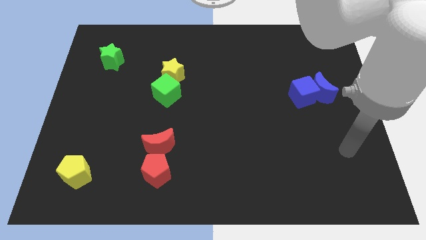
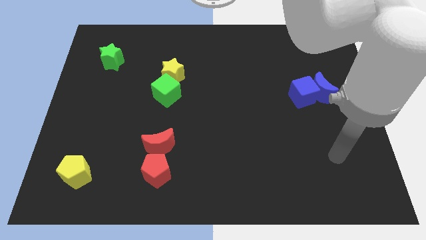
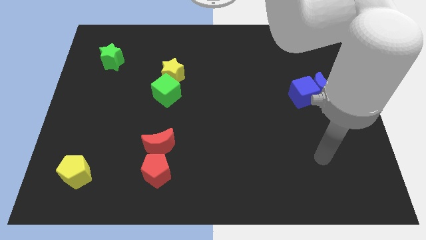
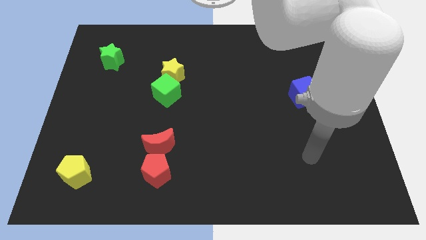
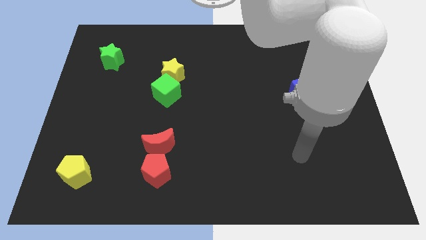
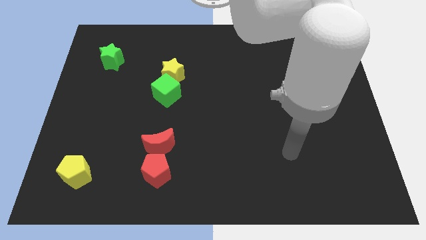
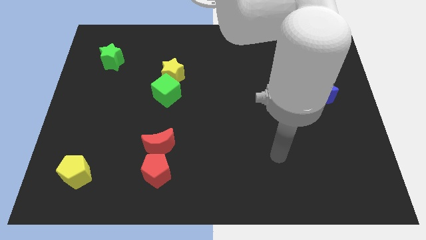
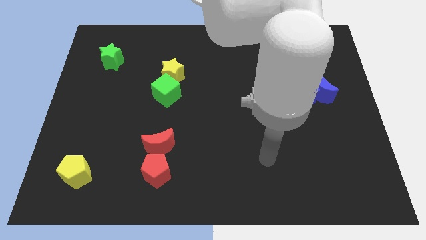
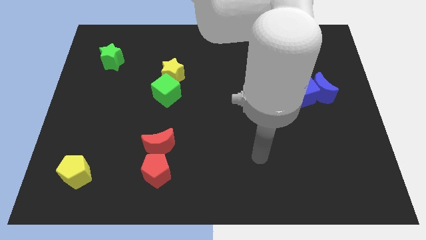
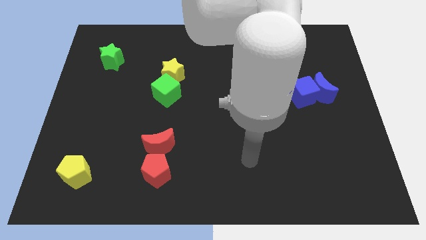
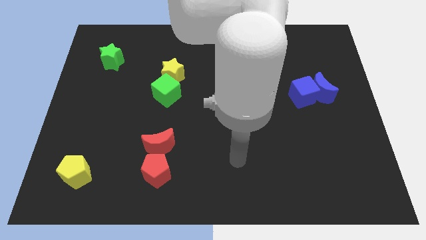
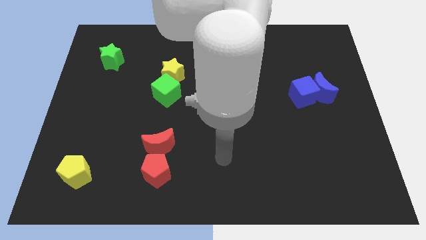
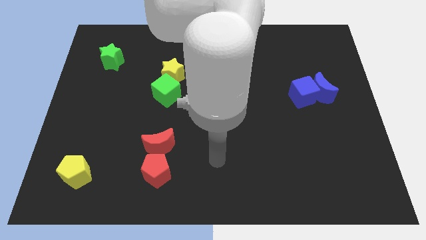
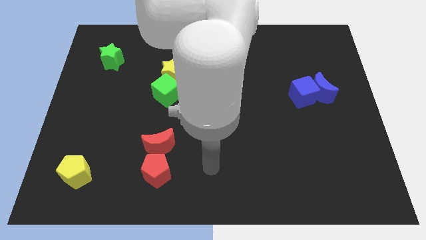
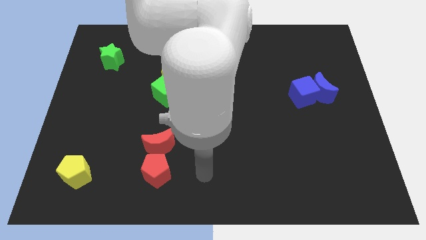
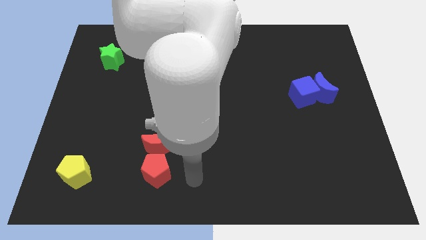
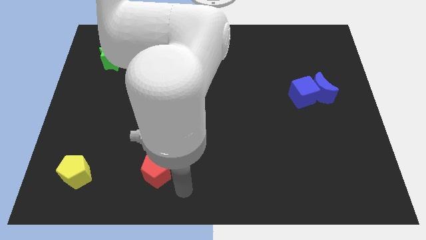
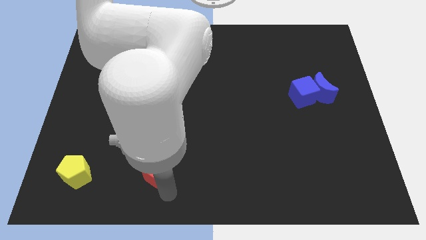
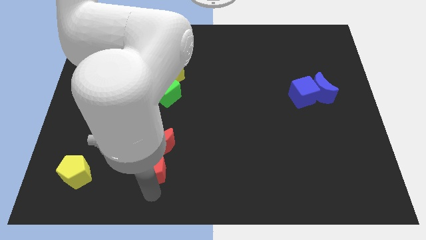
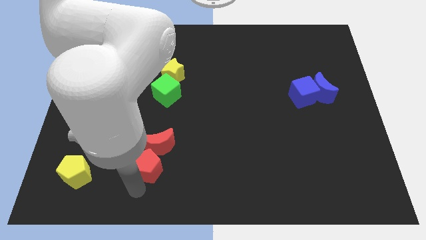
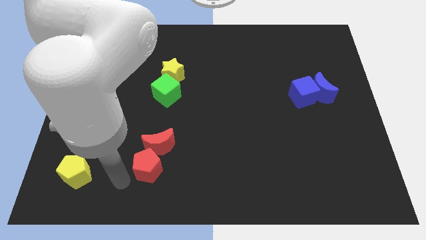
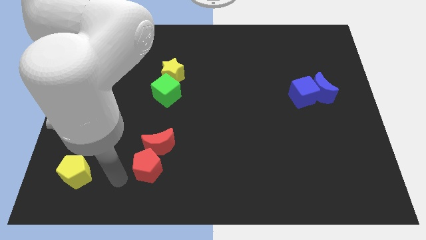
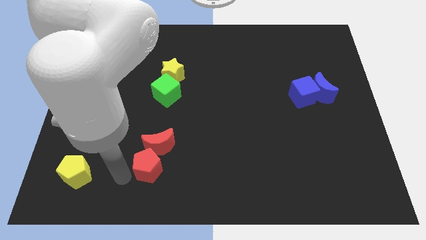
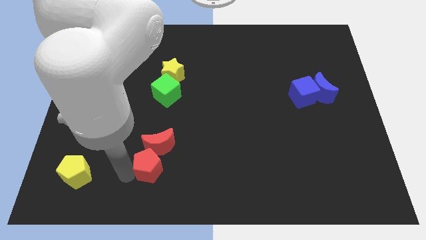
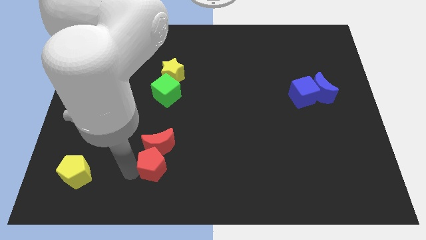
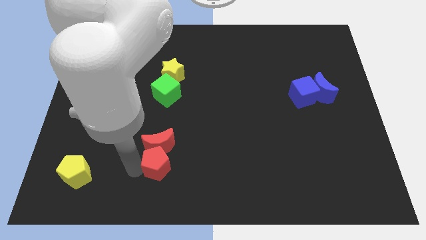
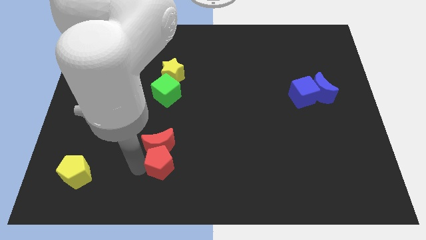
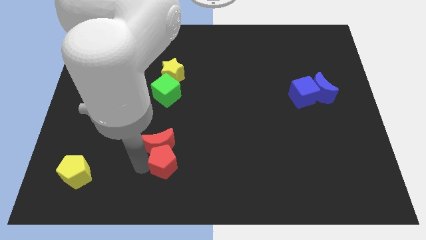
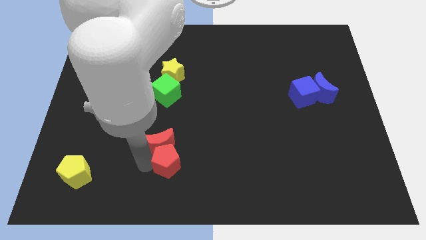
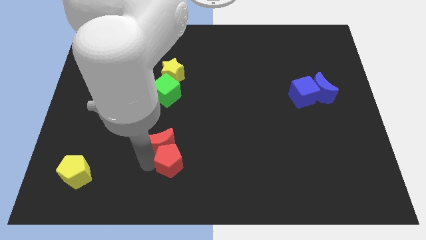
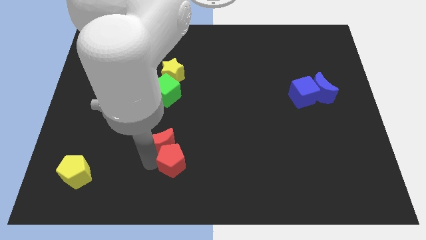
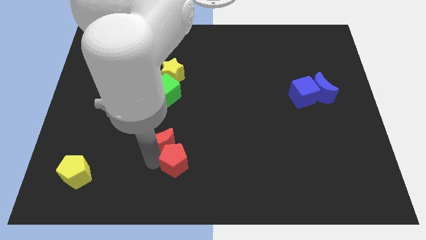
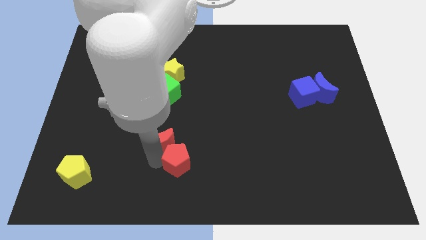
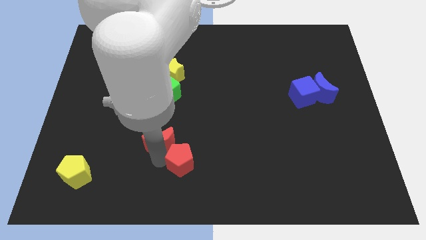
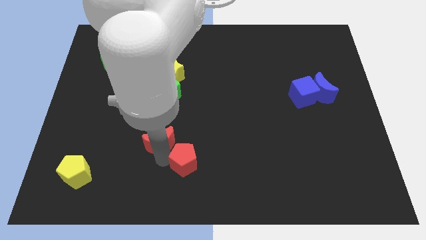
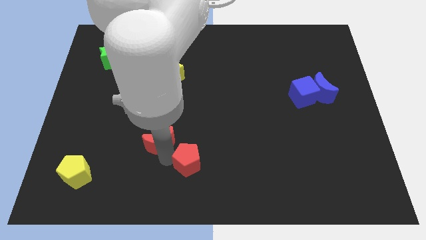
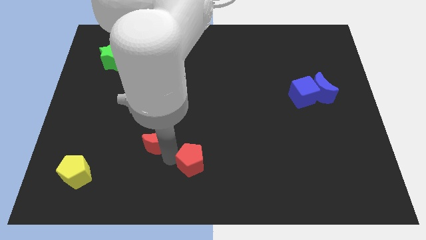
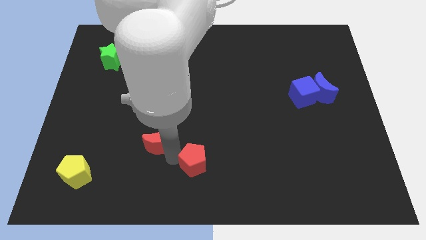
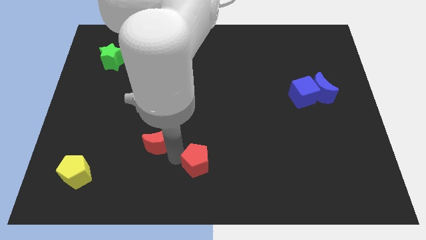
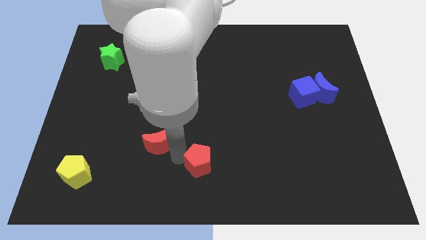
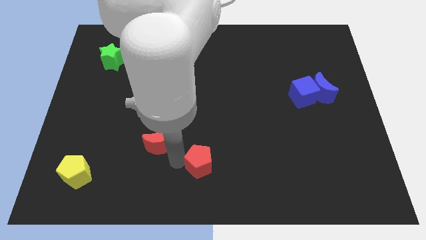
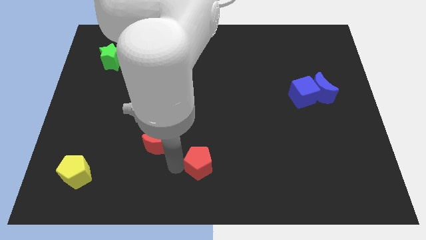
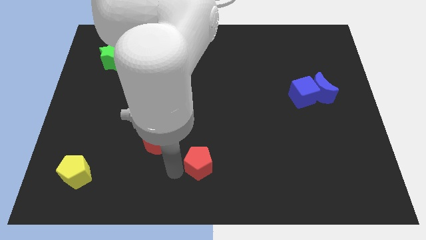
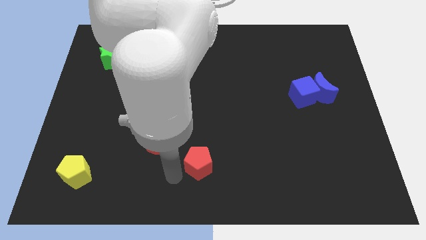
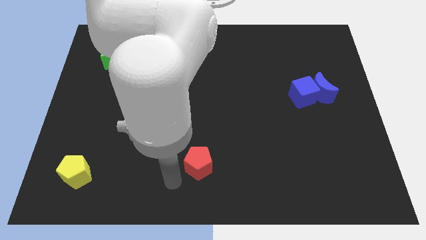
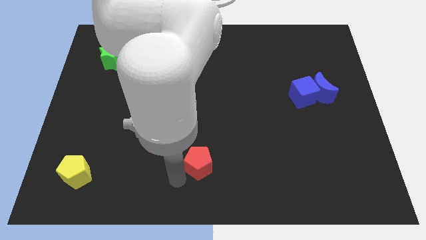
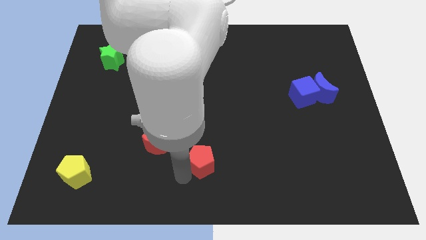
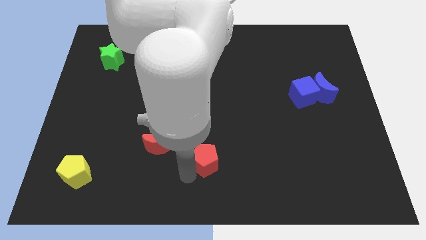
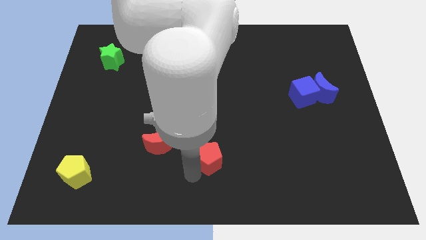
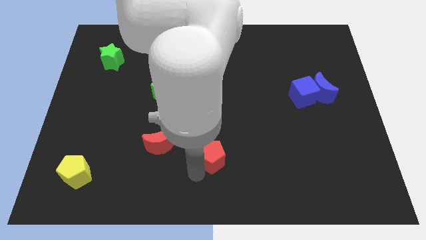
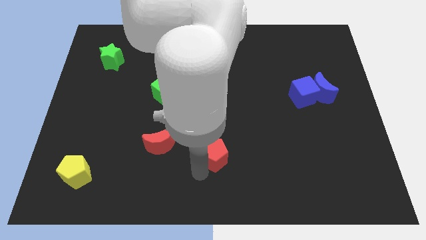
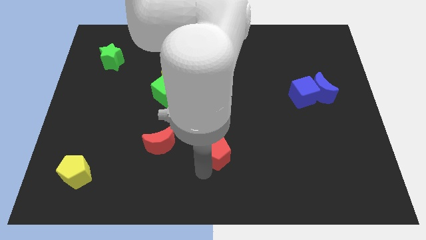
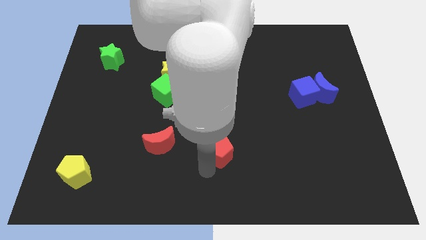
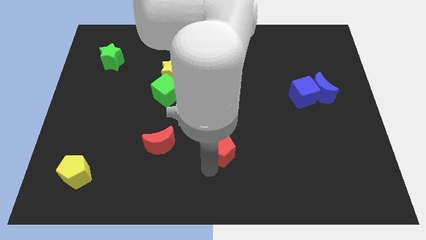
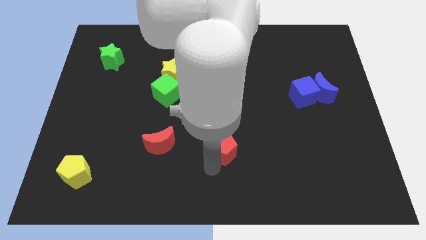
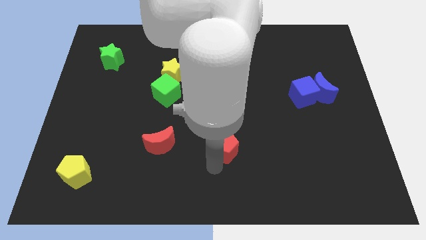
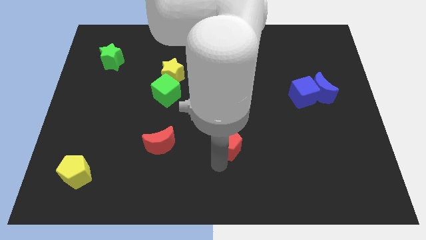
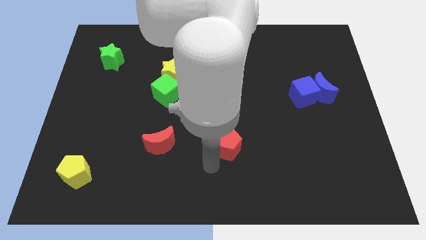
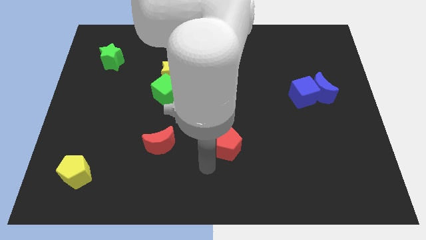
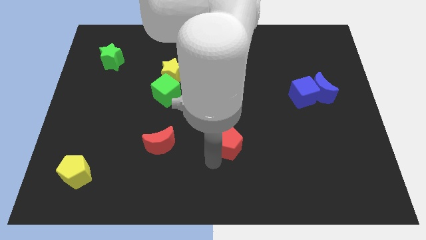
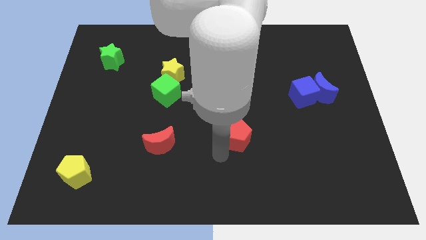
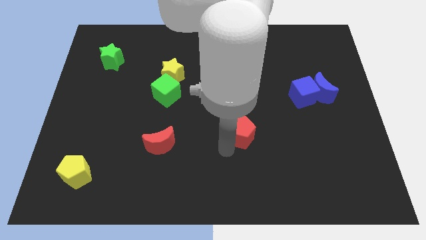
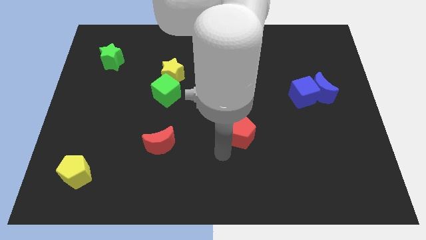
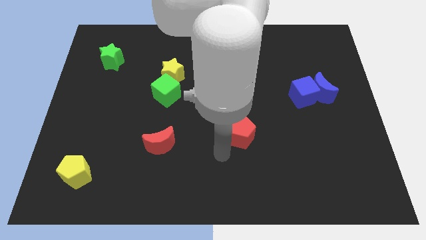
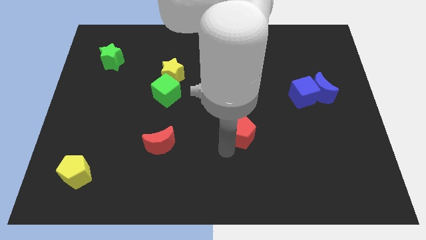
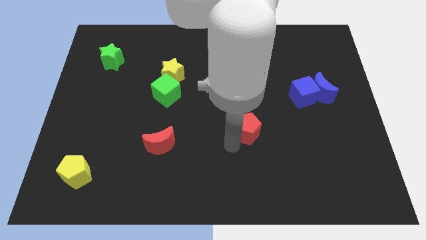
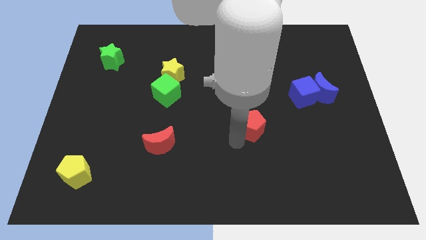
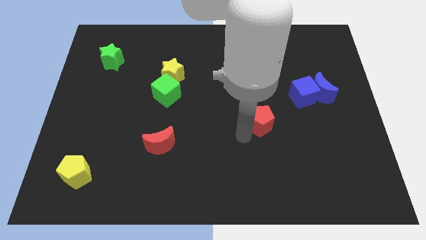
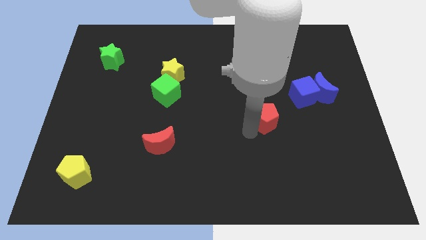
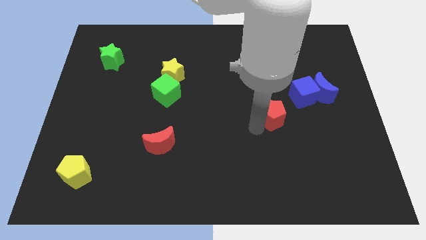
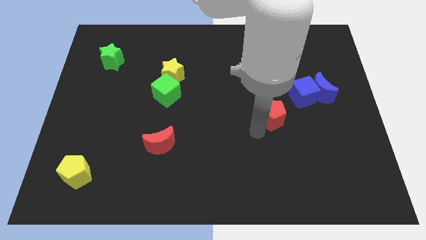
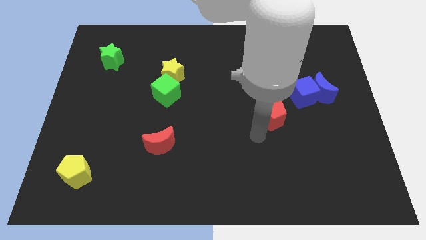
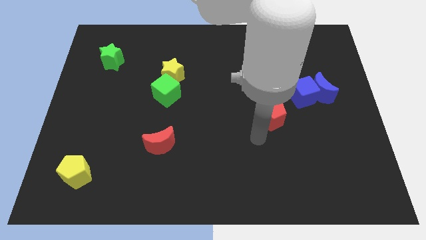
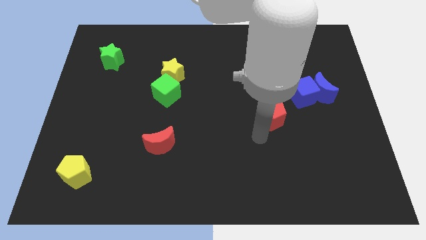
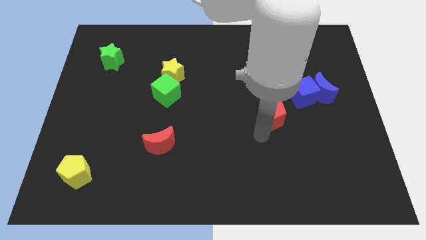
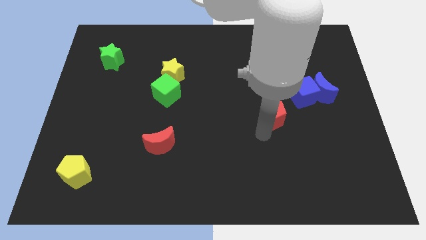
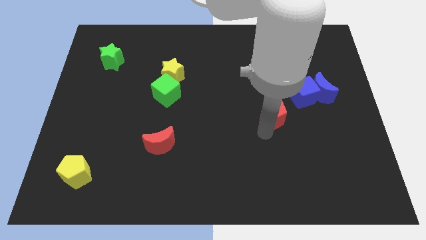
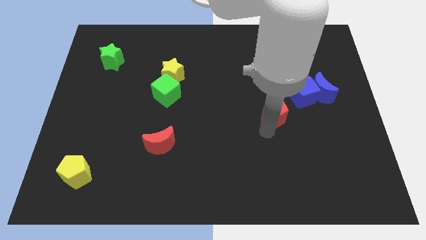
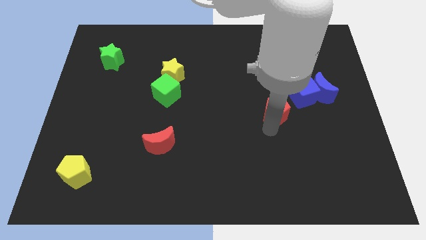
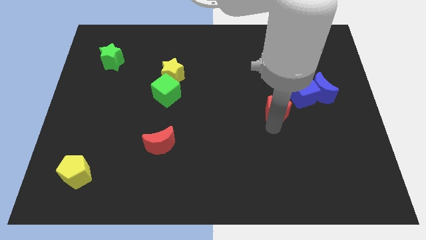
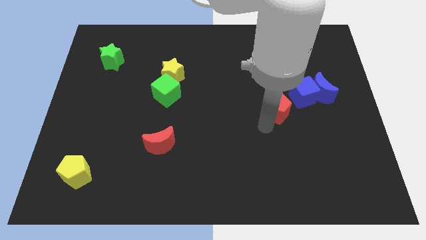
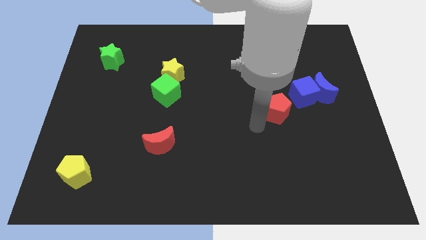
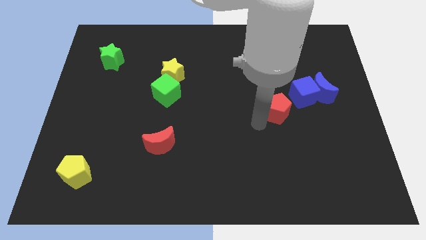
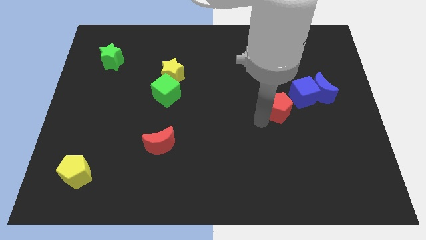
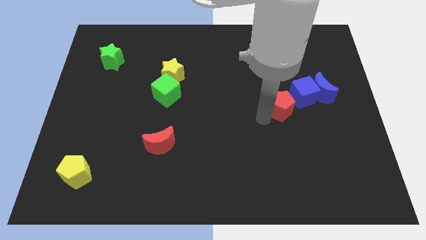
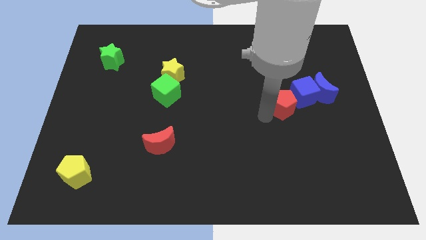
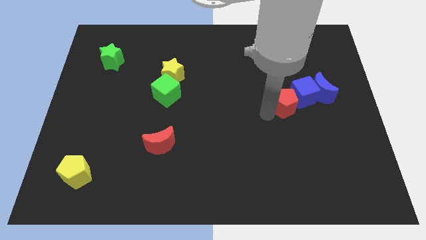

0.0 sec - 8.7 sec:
push the red pentagon close to the blue cube
